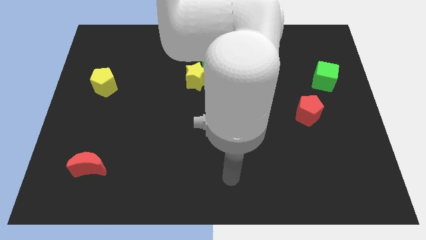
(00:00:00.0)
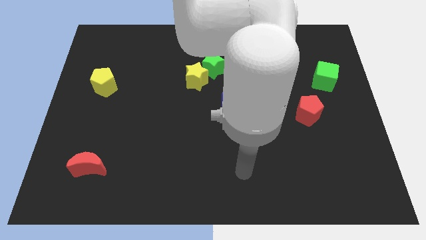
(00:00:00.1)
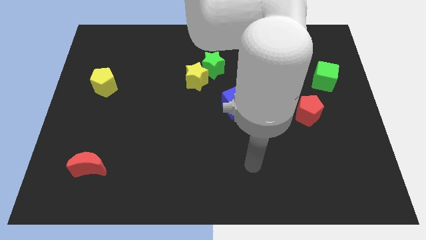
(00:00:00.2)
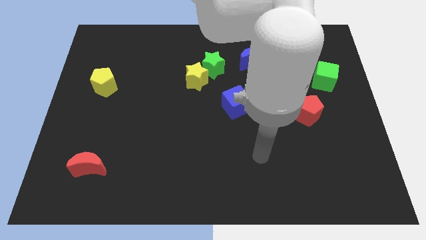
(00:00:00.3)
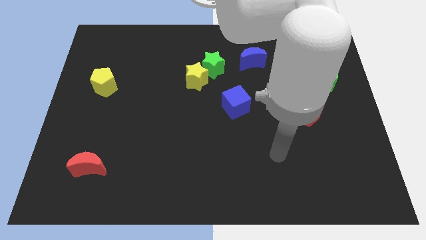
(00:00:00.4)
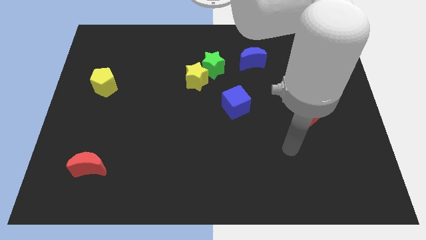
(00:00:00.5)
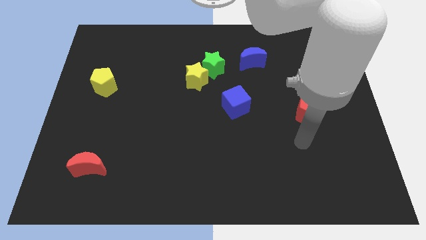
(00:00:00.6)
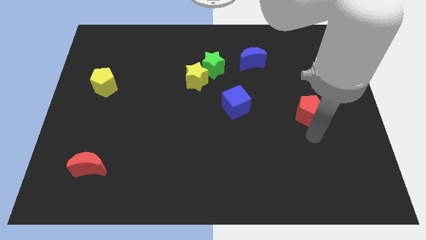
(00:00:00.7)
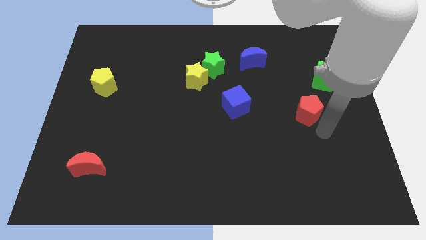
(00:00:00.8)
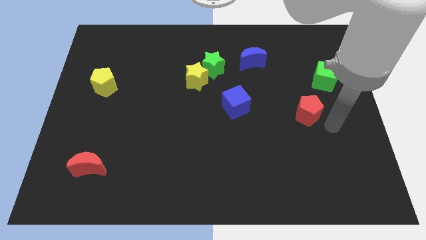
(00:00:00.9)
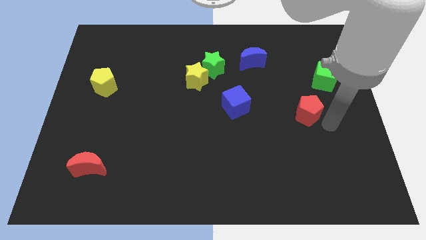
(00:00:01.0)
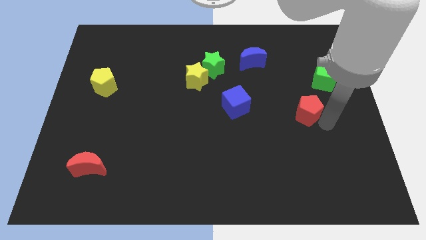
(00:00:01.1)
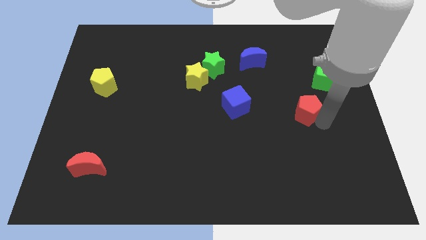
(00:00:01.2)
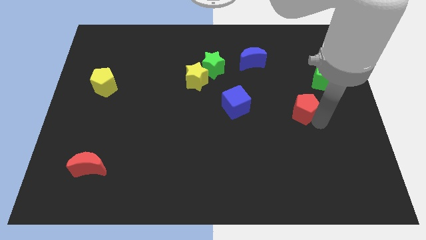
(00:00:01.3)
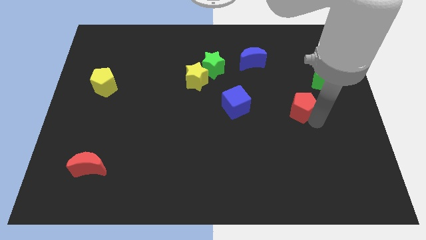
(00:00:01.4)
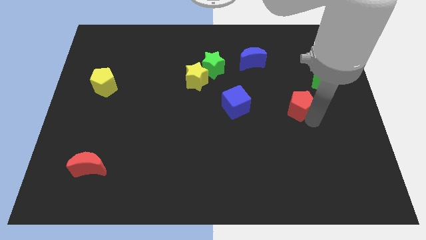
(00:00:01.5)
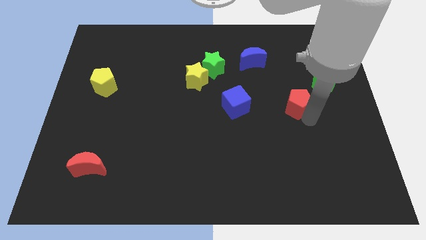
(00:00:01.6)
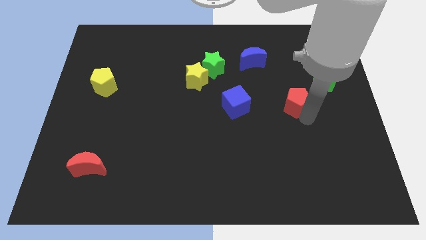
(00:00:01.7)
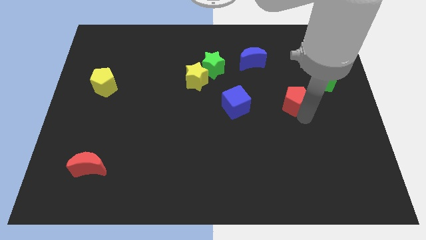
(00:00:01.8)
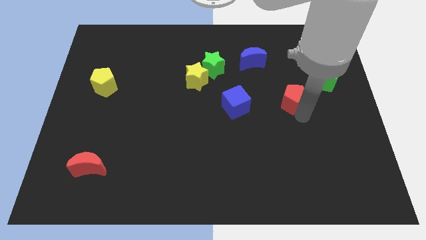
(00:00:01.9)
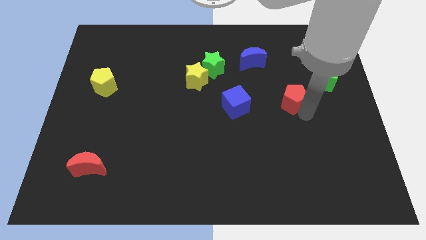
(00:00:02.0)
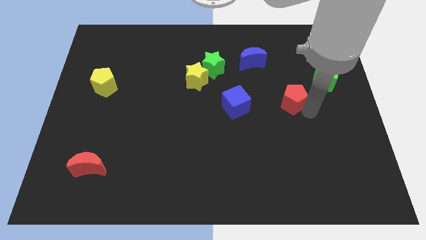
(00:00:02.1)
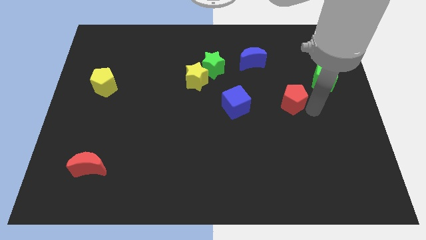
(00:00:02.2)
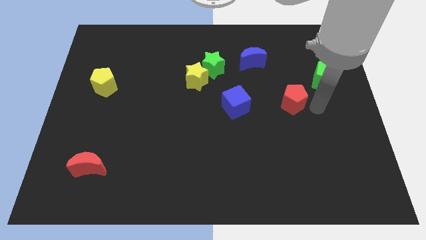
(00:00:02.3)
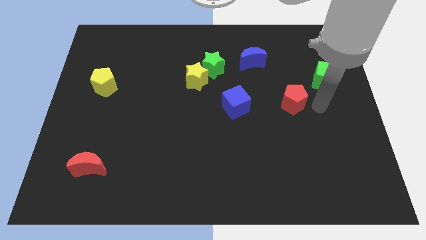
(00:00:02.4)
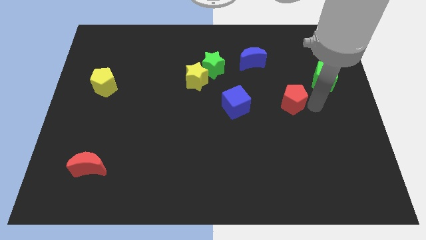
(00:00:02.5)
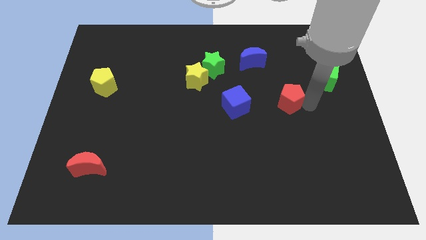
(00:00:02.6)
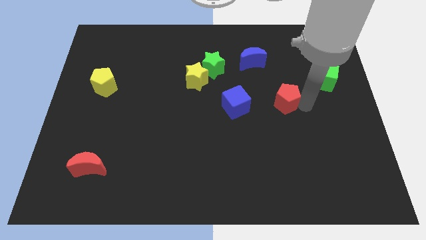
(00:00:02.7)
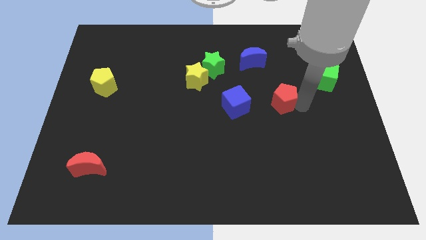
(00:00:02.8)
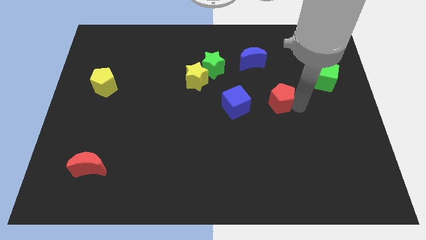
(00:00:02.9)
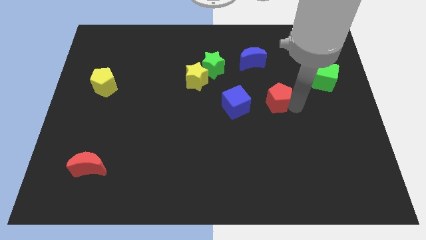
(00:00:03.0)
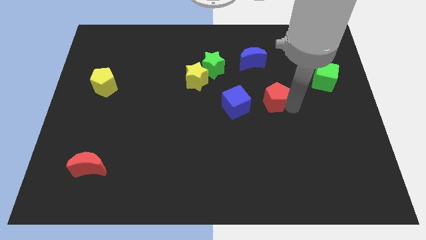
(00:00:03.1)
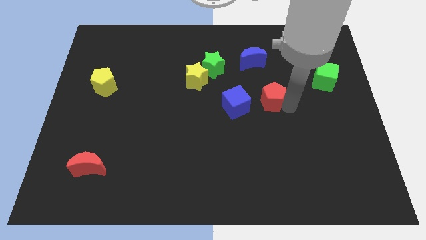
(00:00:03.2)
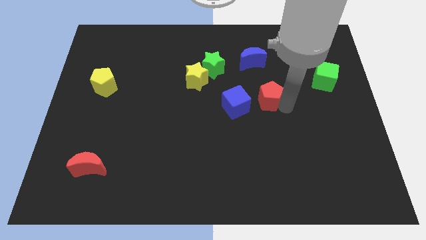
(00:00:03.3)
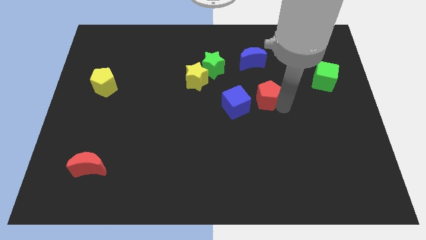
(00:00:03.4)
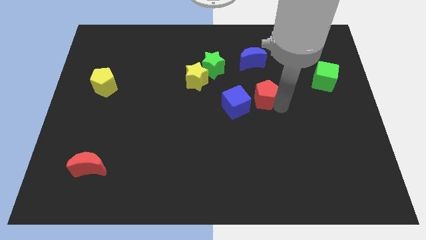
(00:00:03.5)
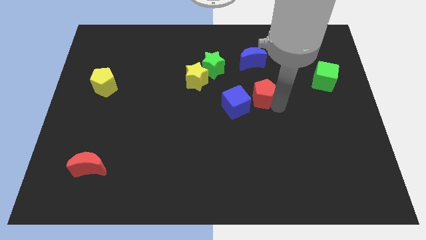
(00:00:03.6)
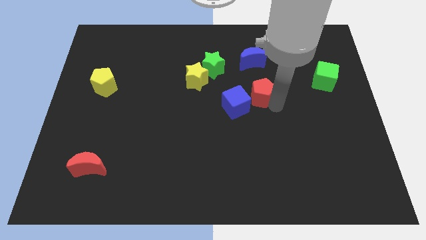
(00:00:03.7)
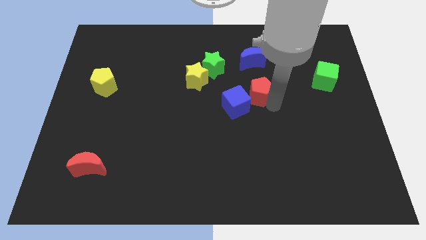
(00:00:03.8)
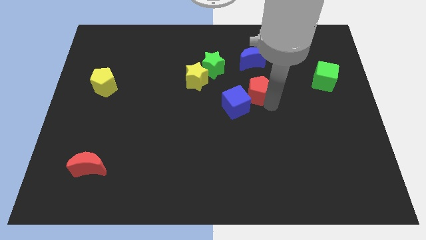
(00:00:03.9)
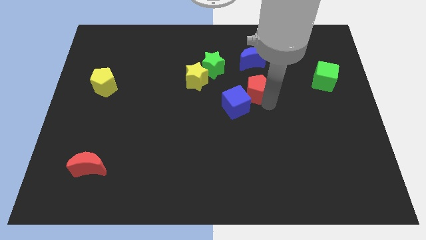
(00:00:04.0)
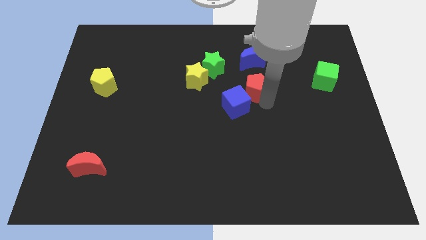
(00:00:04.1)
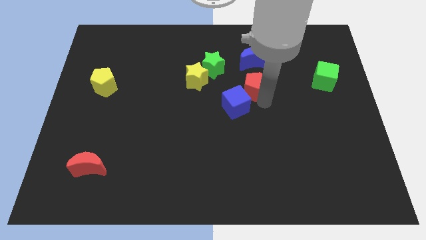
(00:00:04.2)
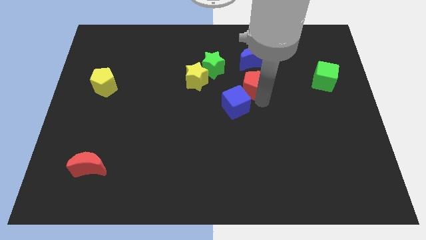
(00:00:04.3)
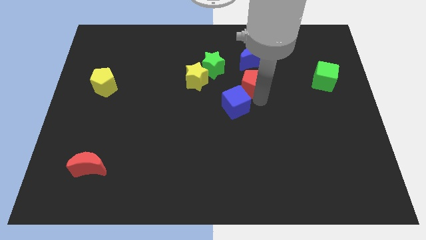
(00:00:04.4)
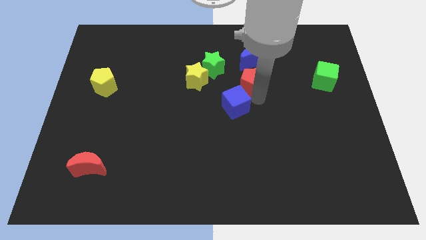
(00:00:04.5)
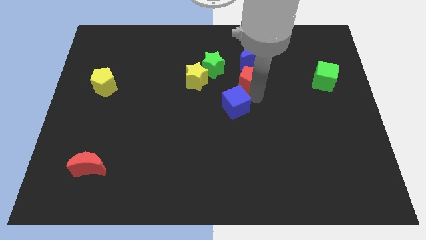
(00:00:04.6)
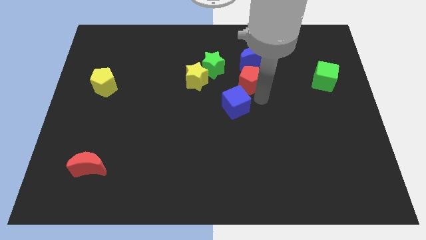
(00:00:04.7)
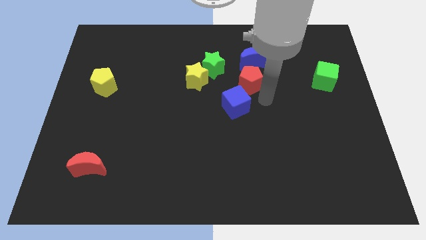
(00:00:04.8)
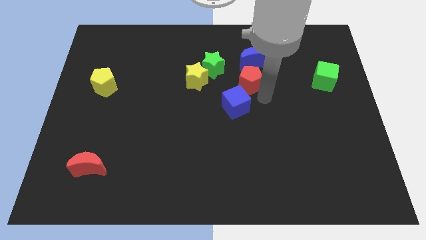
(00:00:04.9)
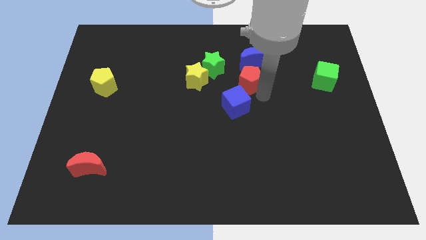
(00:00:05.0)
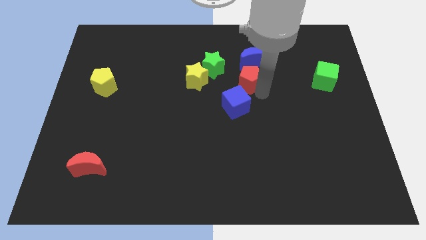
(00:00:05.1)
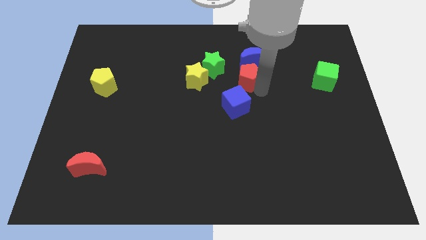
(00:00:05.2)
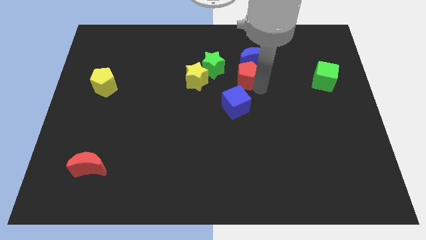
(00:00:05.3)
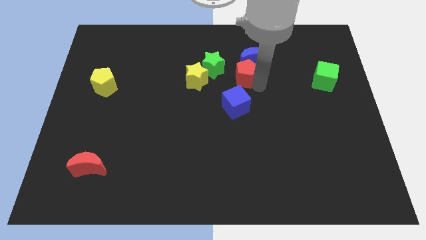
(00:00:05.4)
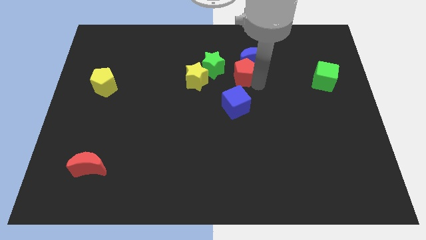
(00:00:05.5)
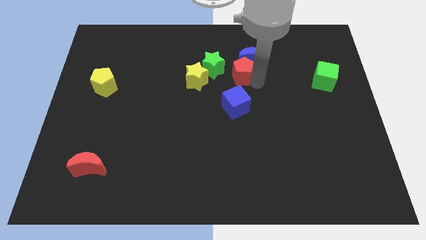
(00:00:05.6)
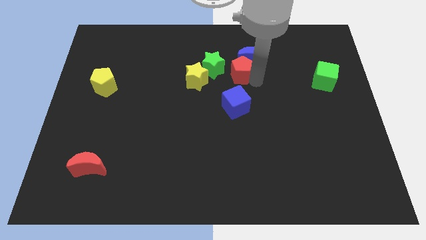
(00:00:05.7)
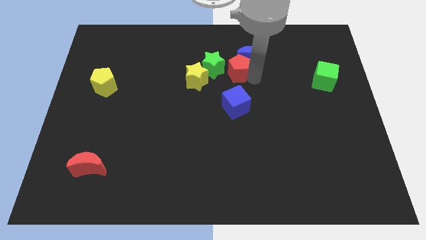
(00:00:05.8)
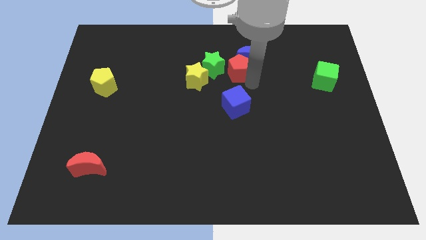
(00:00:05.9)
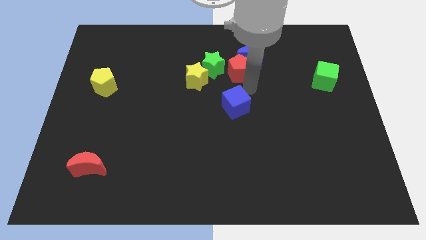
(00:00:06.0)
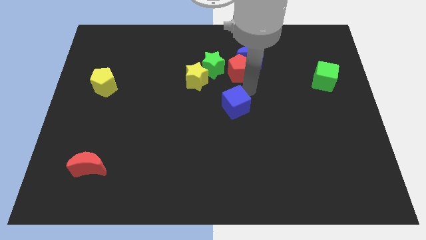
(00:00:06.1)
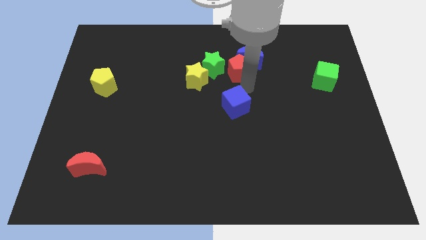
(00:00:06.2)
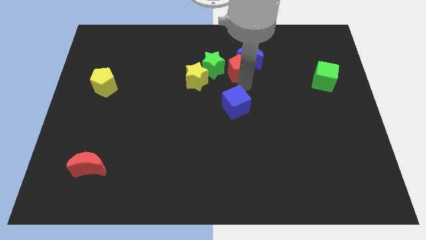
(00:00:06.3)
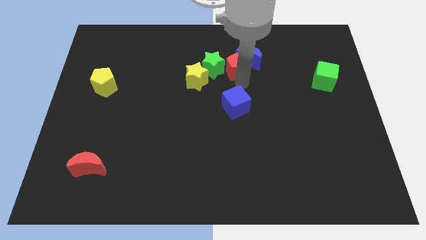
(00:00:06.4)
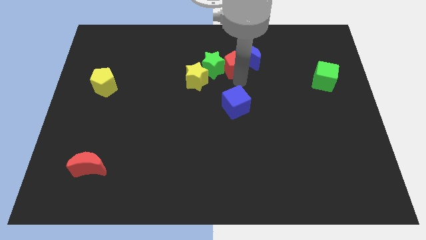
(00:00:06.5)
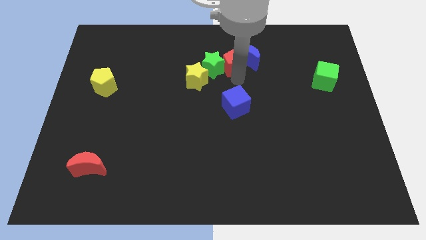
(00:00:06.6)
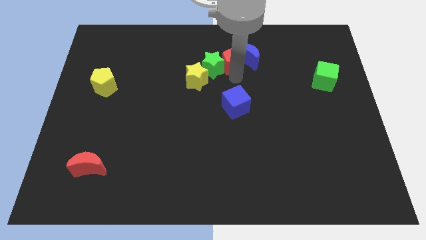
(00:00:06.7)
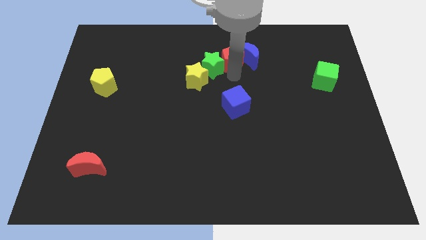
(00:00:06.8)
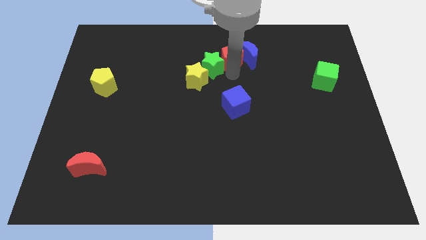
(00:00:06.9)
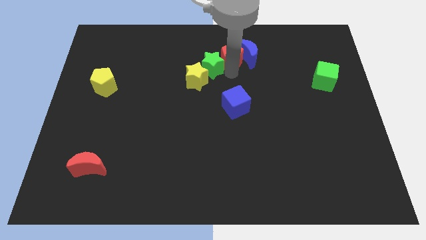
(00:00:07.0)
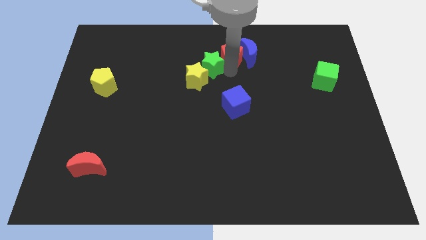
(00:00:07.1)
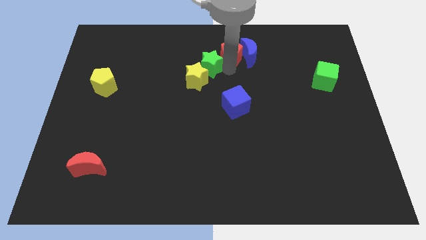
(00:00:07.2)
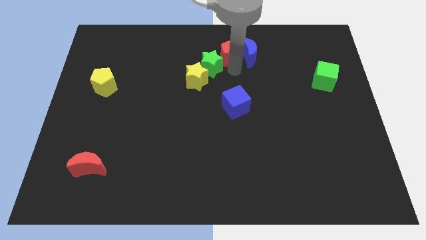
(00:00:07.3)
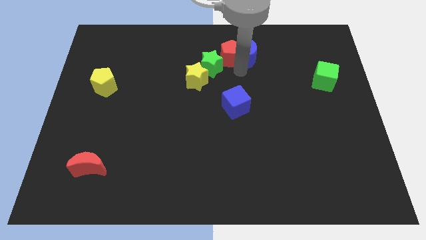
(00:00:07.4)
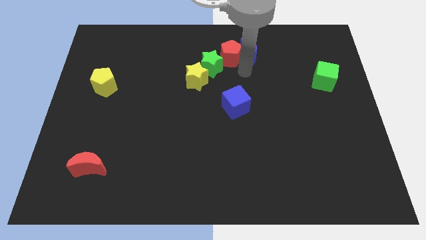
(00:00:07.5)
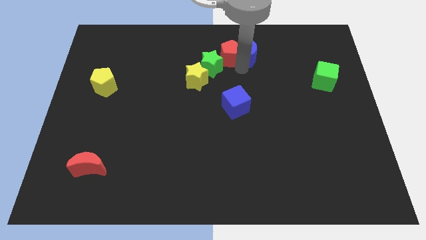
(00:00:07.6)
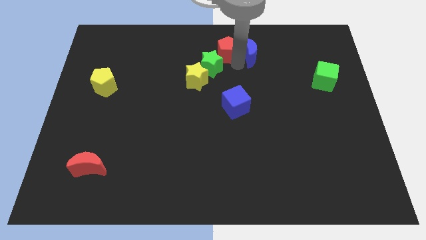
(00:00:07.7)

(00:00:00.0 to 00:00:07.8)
move the red pentagon to the top side
